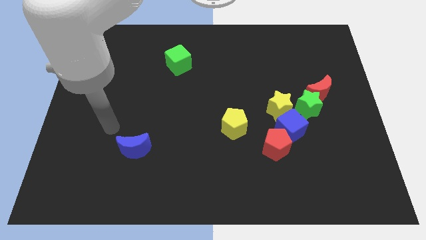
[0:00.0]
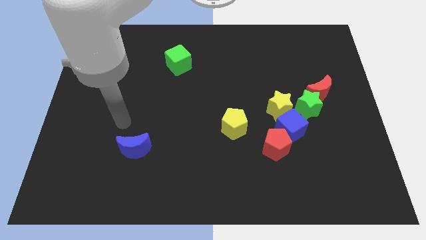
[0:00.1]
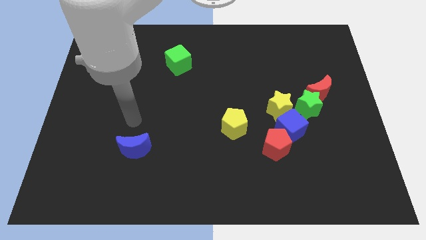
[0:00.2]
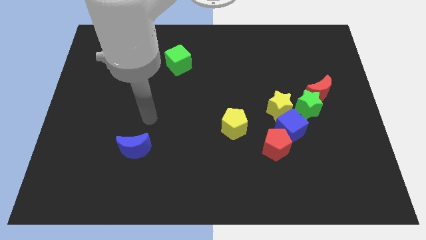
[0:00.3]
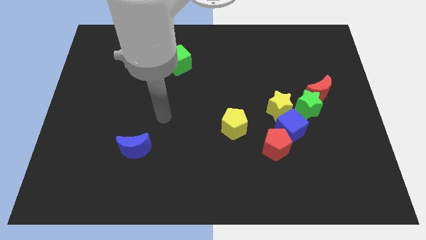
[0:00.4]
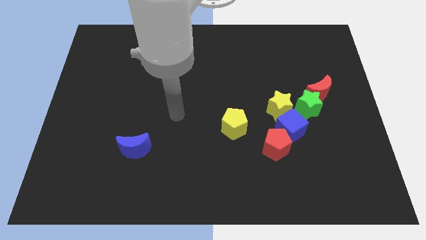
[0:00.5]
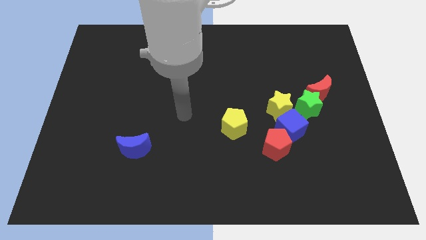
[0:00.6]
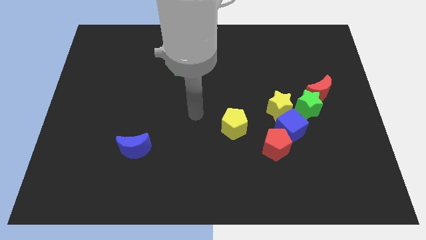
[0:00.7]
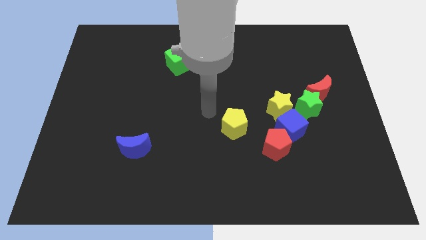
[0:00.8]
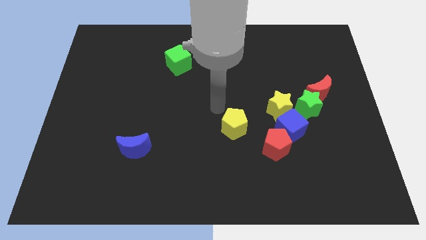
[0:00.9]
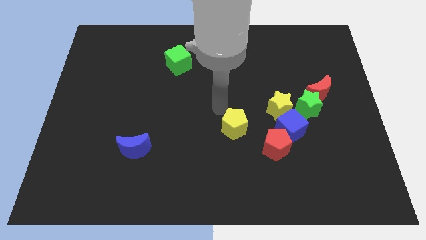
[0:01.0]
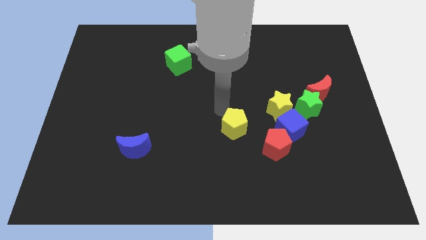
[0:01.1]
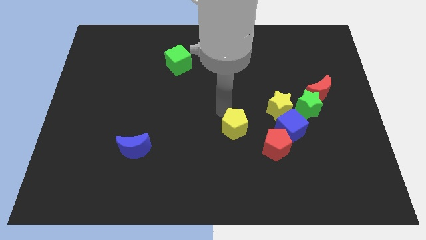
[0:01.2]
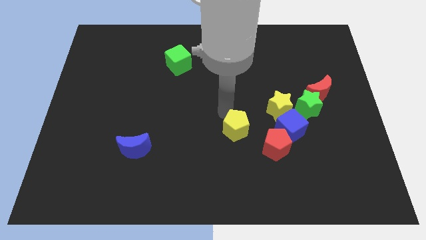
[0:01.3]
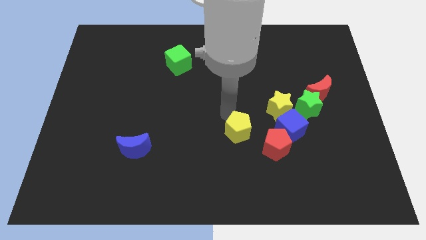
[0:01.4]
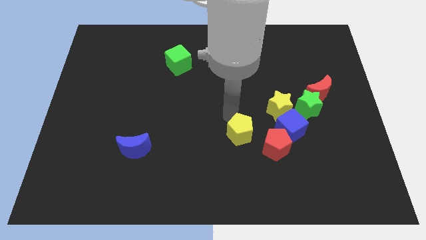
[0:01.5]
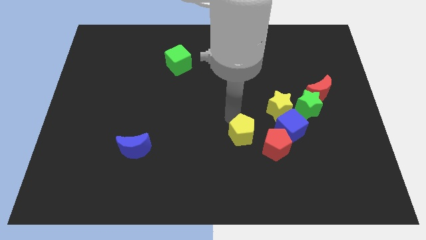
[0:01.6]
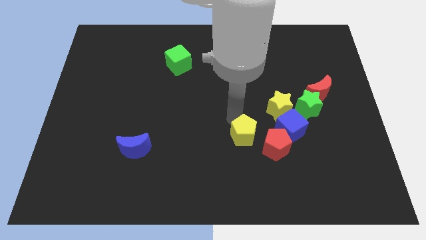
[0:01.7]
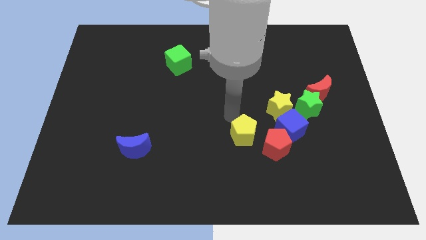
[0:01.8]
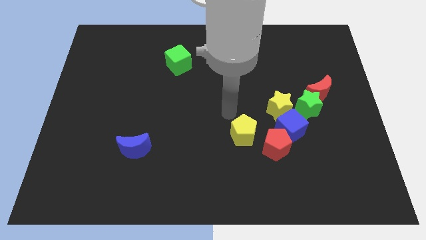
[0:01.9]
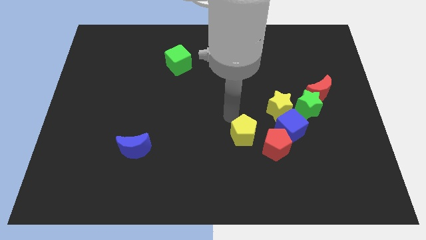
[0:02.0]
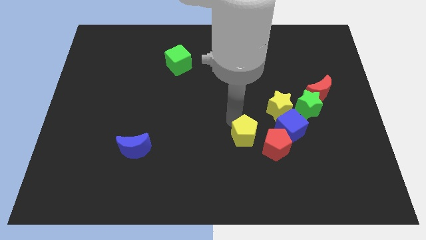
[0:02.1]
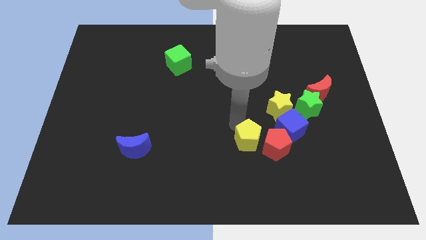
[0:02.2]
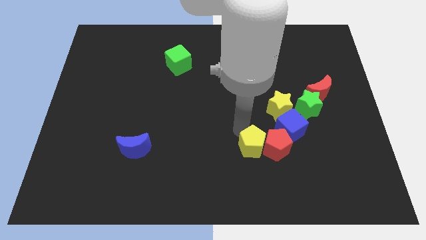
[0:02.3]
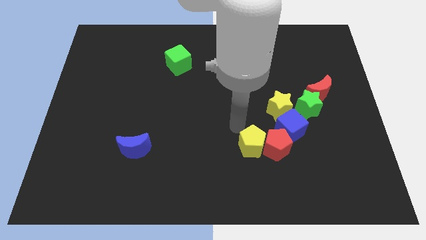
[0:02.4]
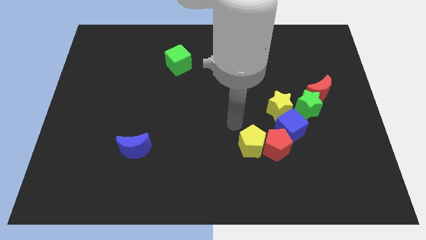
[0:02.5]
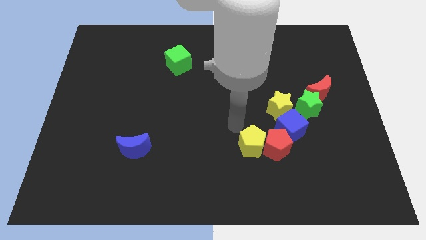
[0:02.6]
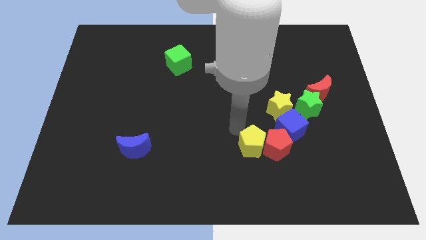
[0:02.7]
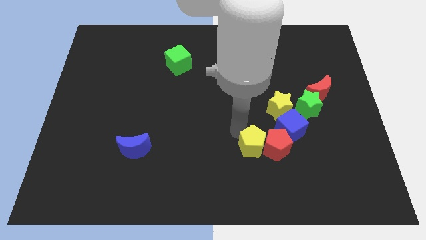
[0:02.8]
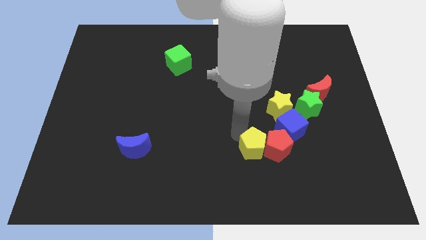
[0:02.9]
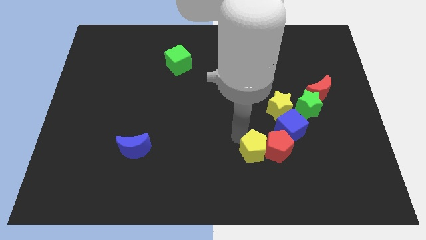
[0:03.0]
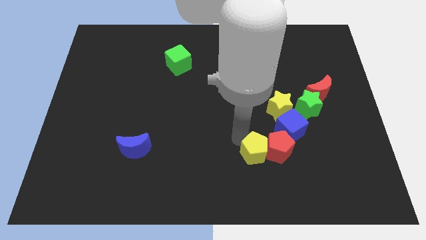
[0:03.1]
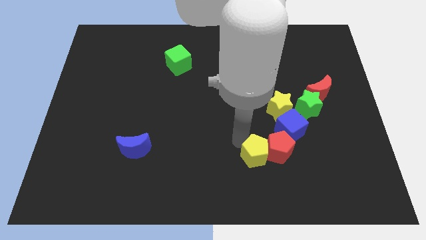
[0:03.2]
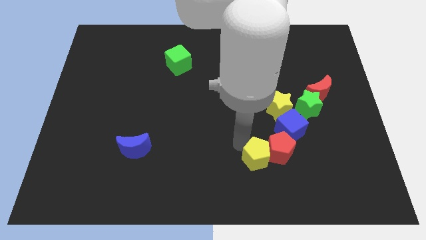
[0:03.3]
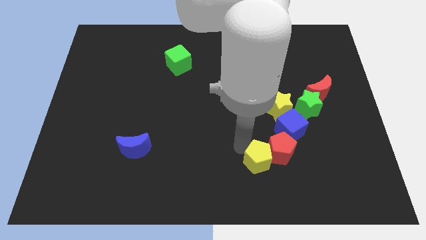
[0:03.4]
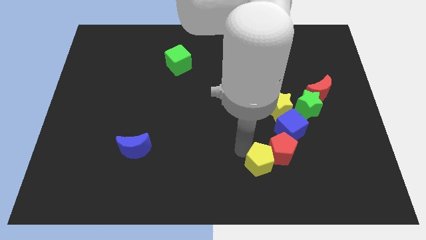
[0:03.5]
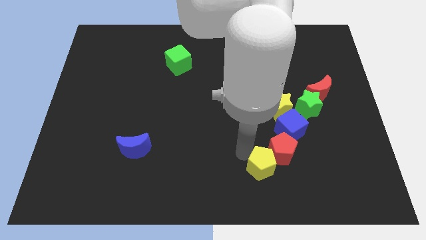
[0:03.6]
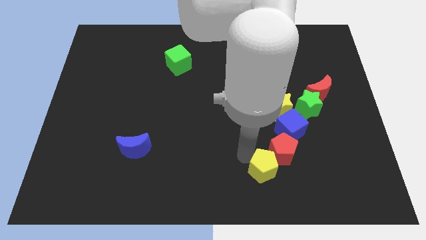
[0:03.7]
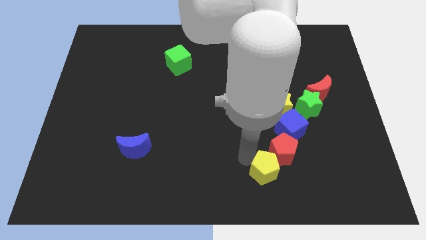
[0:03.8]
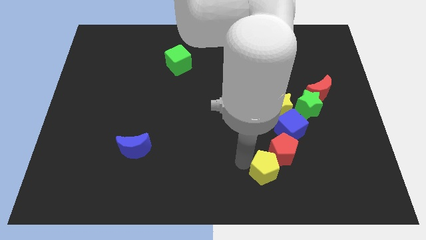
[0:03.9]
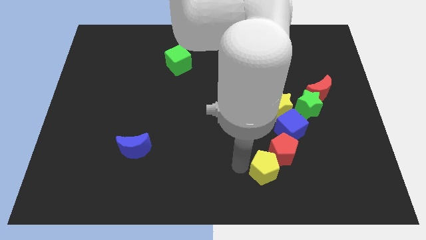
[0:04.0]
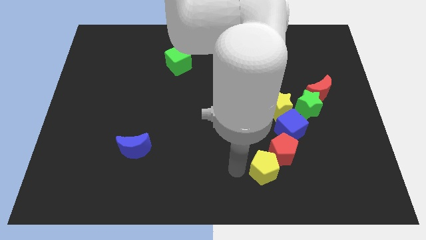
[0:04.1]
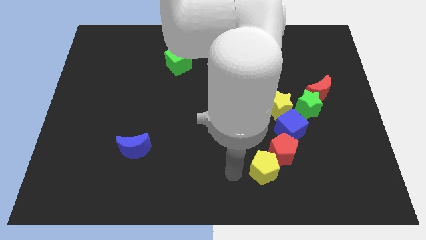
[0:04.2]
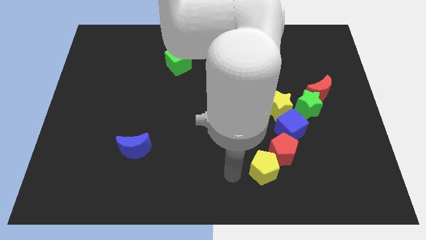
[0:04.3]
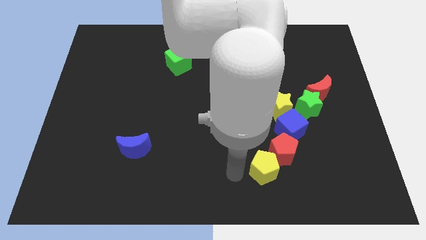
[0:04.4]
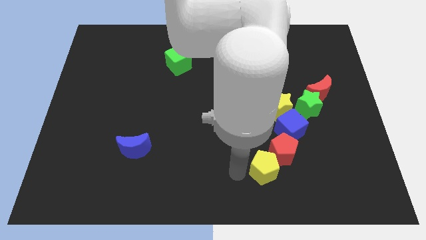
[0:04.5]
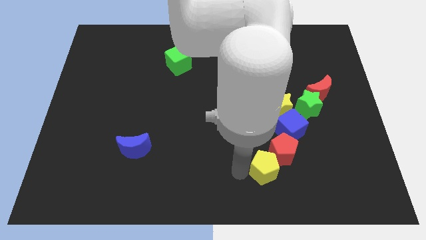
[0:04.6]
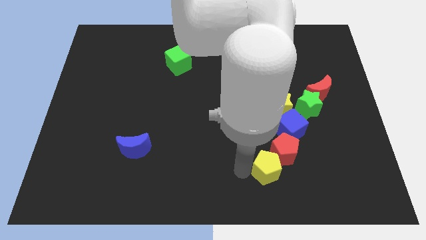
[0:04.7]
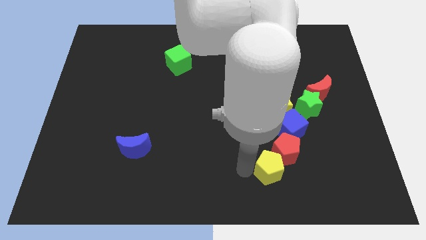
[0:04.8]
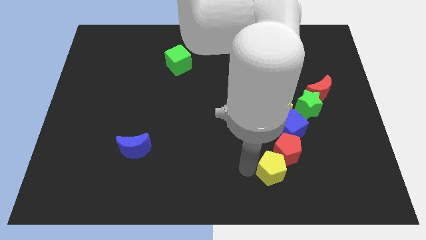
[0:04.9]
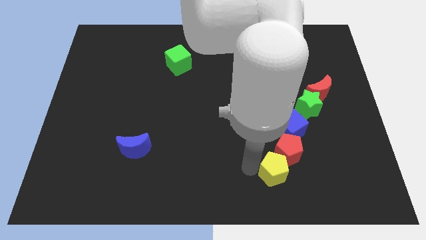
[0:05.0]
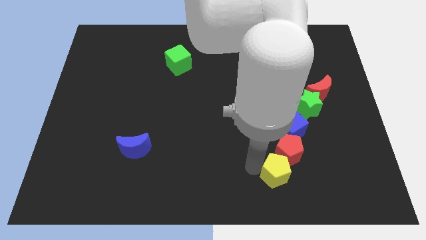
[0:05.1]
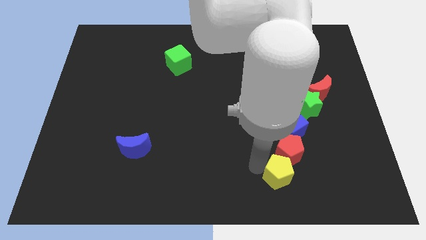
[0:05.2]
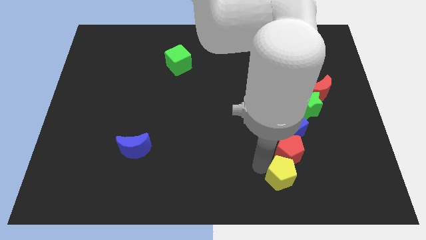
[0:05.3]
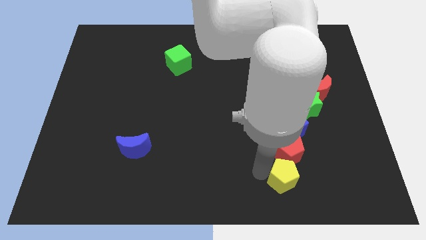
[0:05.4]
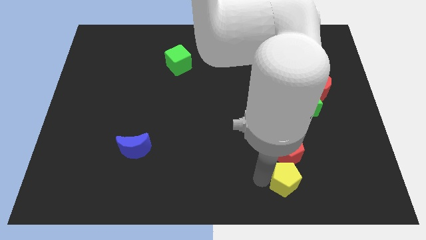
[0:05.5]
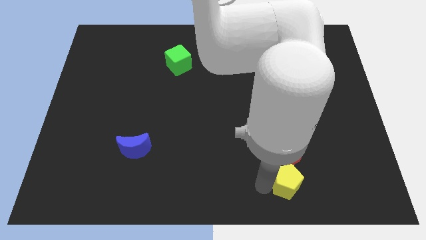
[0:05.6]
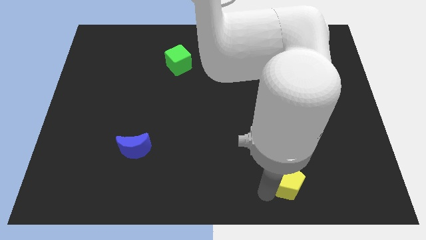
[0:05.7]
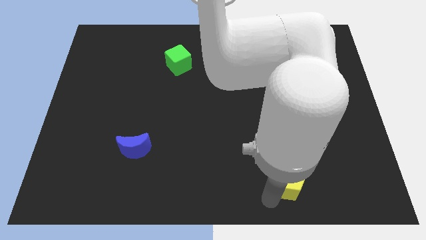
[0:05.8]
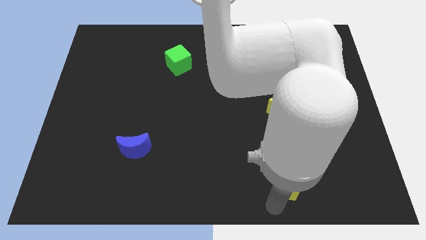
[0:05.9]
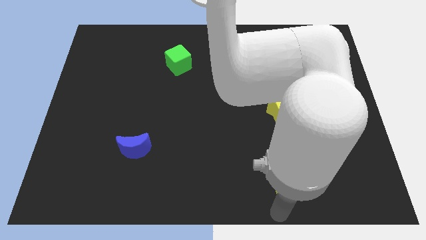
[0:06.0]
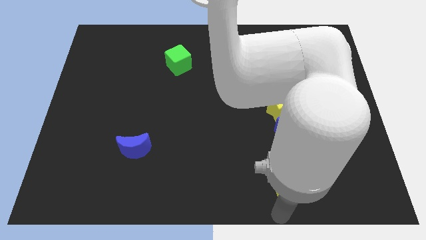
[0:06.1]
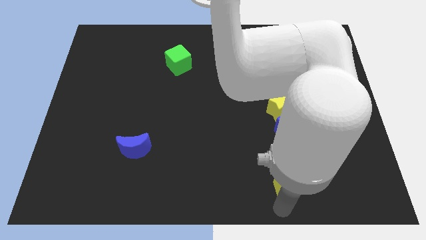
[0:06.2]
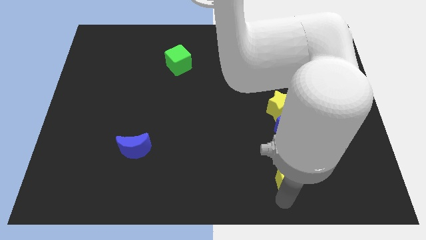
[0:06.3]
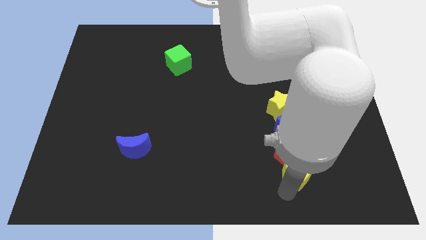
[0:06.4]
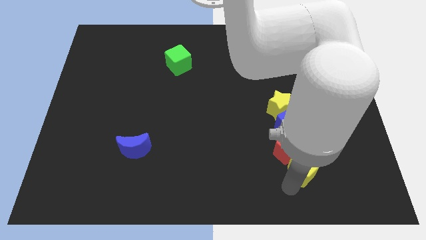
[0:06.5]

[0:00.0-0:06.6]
push the yellow pentagon a bit to the right

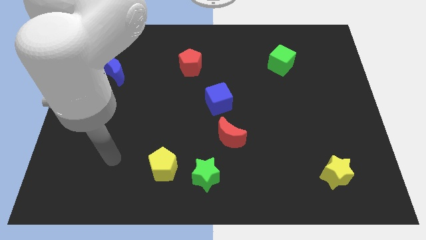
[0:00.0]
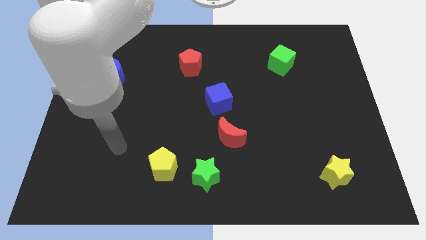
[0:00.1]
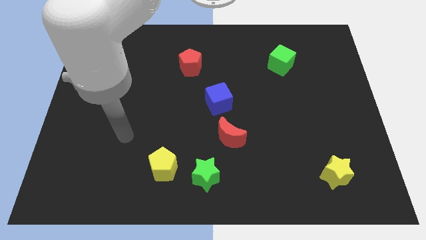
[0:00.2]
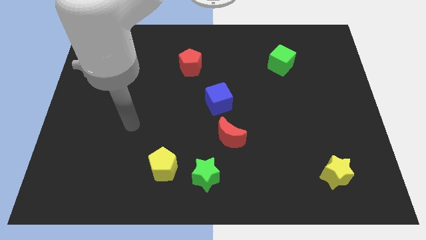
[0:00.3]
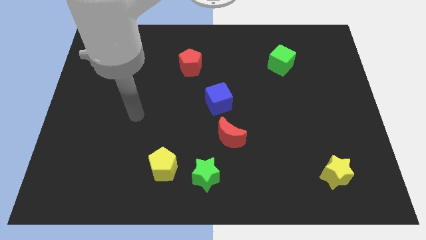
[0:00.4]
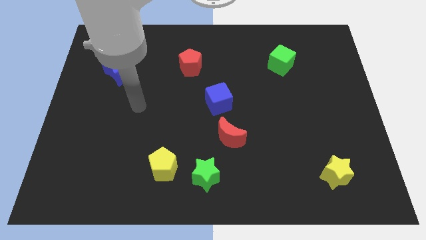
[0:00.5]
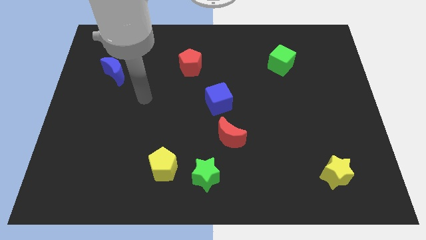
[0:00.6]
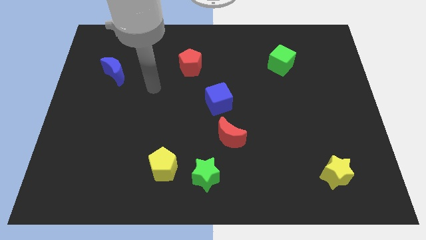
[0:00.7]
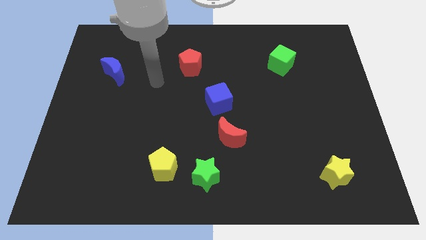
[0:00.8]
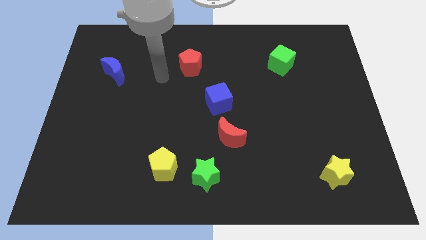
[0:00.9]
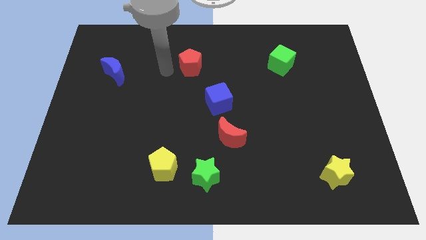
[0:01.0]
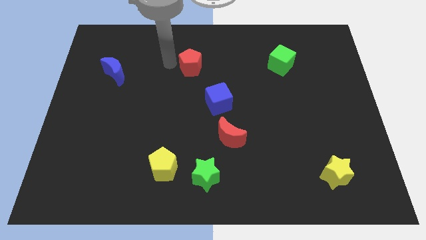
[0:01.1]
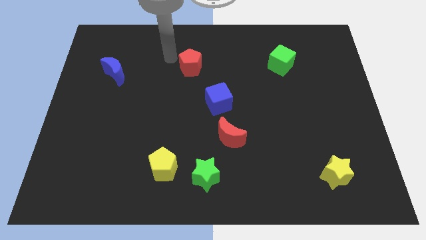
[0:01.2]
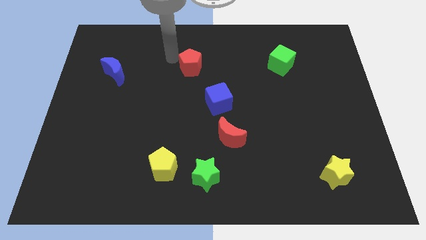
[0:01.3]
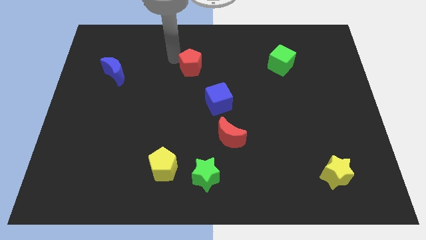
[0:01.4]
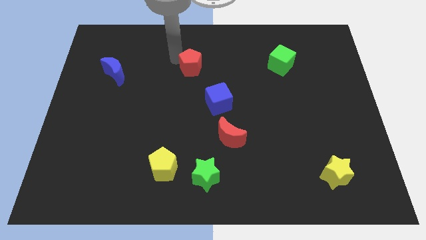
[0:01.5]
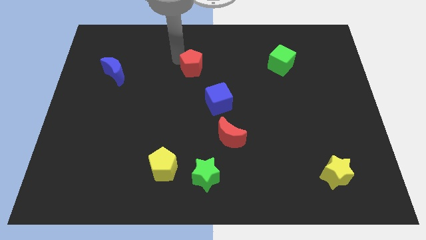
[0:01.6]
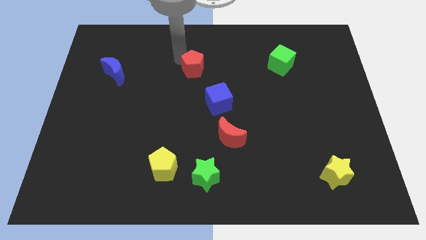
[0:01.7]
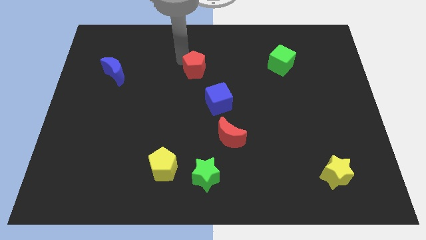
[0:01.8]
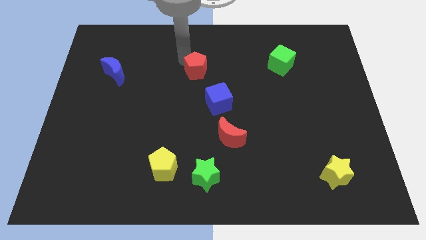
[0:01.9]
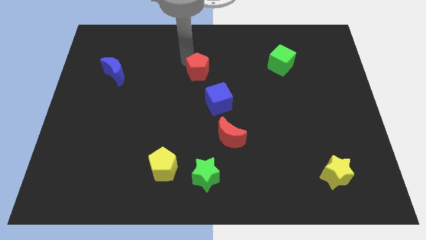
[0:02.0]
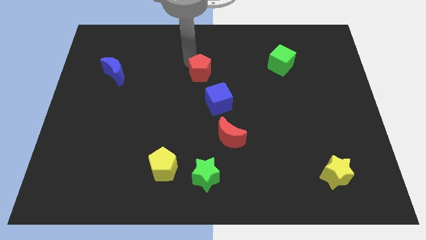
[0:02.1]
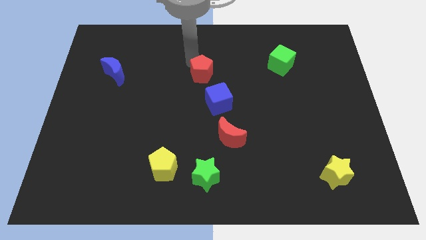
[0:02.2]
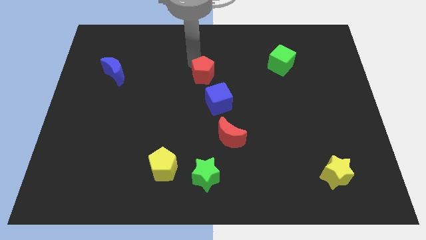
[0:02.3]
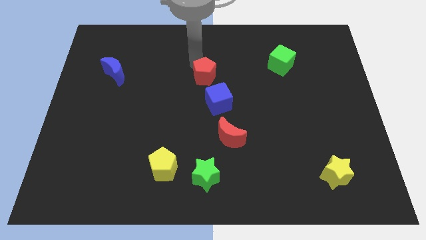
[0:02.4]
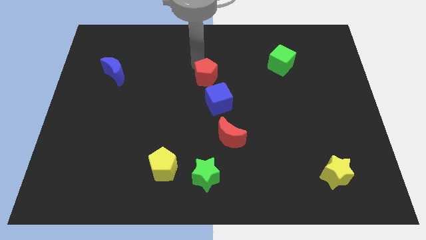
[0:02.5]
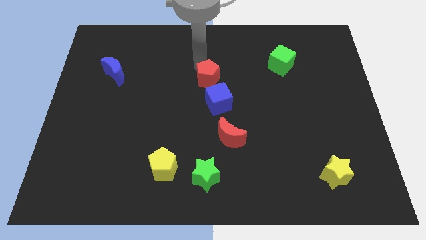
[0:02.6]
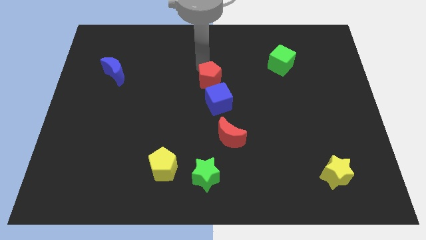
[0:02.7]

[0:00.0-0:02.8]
move the red pentagon downwards and then to the right a little
